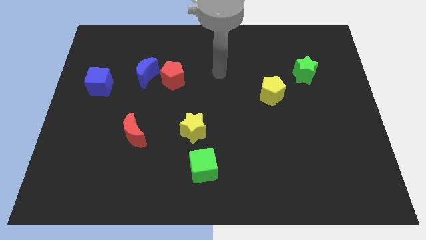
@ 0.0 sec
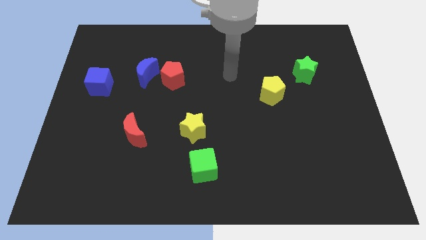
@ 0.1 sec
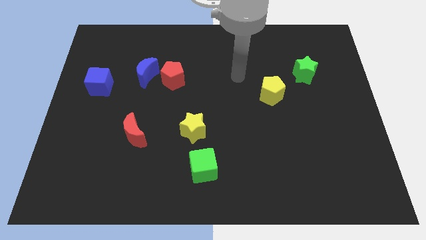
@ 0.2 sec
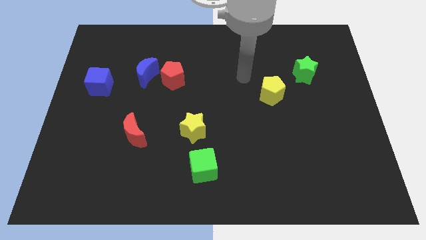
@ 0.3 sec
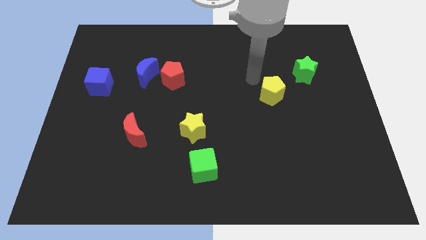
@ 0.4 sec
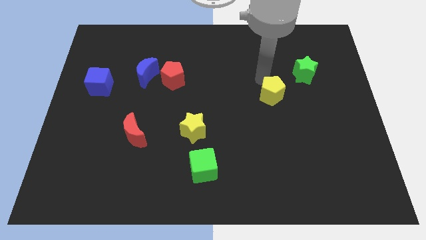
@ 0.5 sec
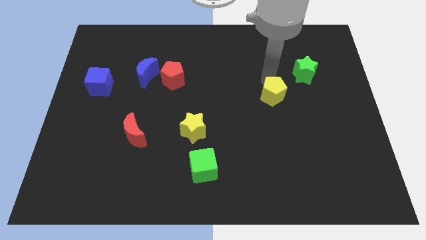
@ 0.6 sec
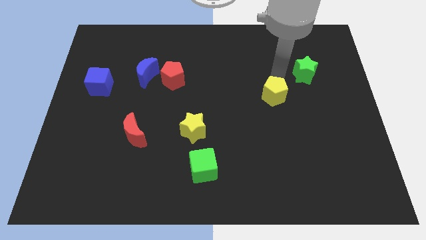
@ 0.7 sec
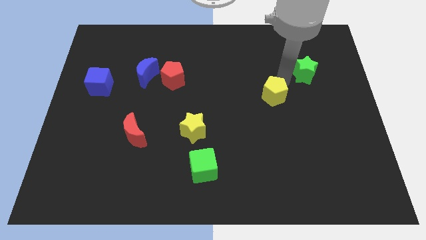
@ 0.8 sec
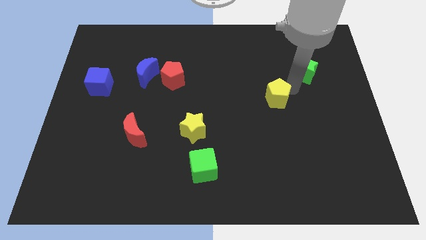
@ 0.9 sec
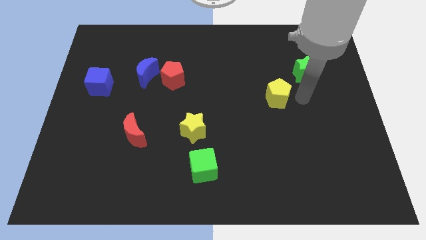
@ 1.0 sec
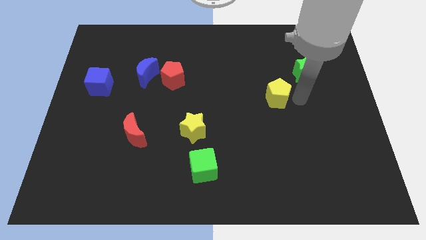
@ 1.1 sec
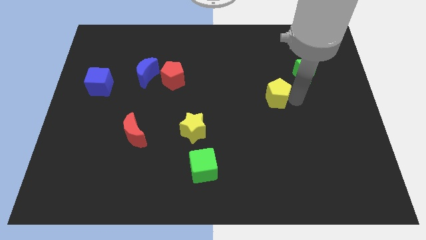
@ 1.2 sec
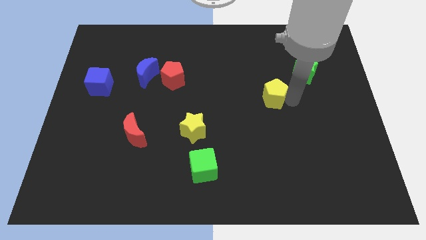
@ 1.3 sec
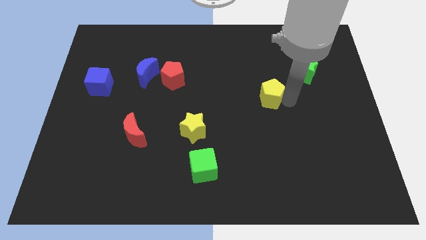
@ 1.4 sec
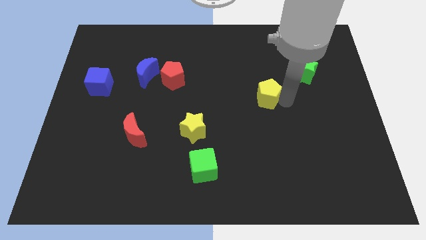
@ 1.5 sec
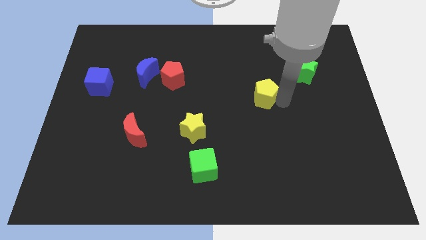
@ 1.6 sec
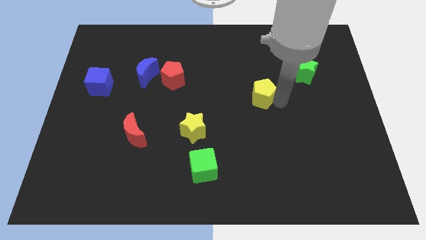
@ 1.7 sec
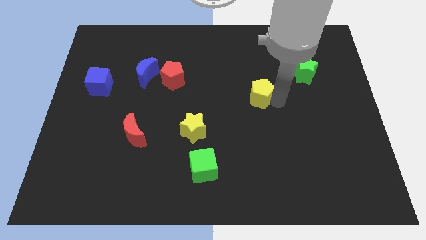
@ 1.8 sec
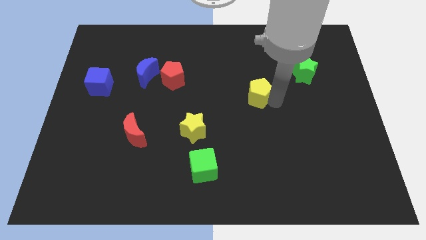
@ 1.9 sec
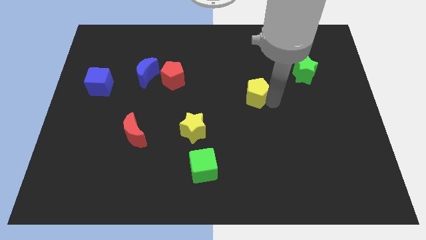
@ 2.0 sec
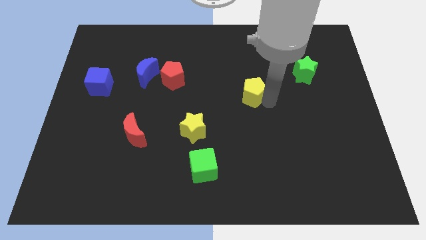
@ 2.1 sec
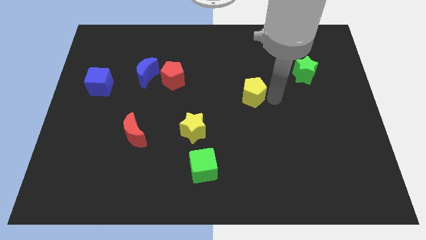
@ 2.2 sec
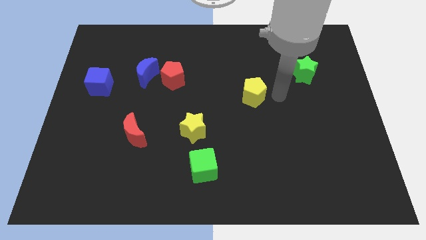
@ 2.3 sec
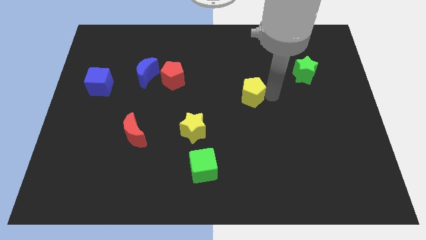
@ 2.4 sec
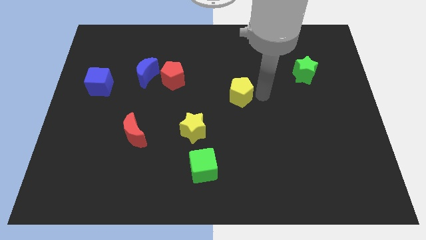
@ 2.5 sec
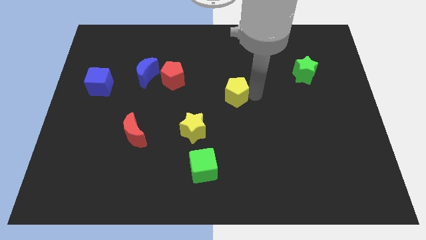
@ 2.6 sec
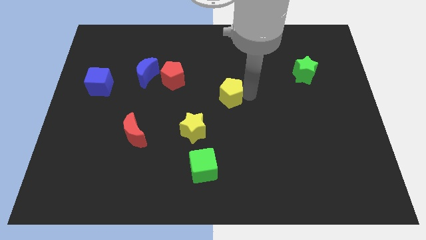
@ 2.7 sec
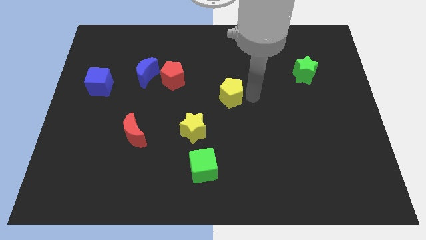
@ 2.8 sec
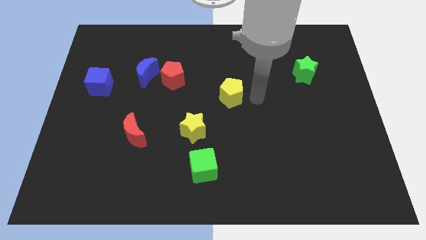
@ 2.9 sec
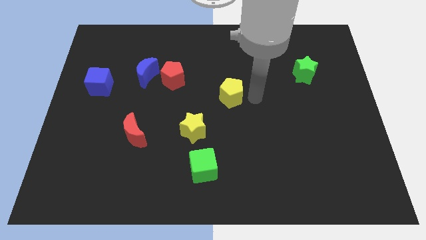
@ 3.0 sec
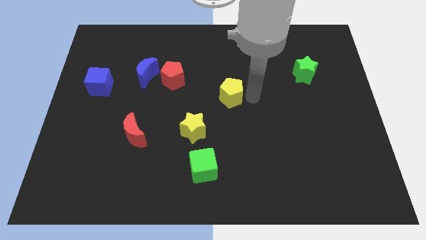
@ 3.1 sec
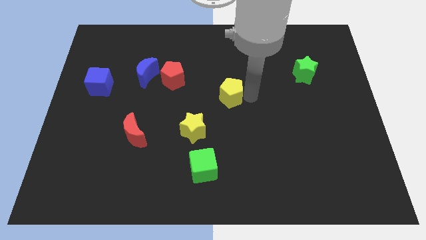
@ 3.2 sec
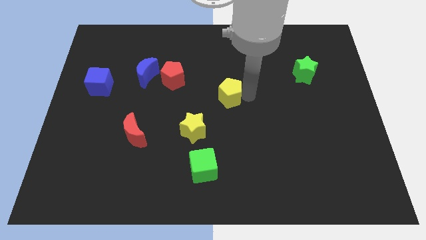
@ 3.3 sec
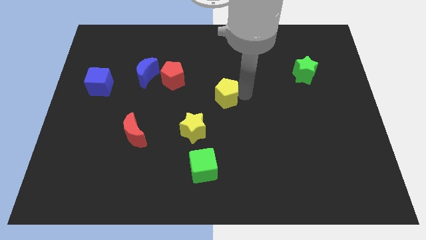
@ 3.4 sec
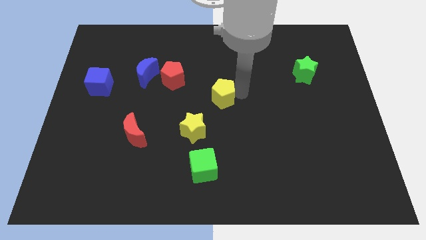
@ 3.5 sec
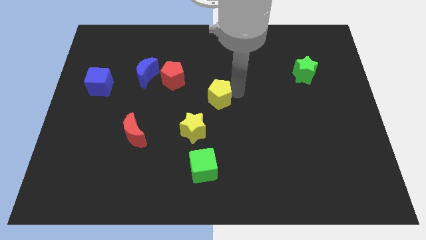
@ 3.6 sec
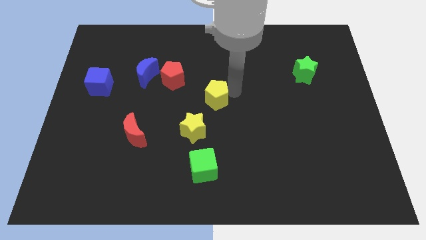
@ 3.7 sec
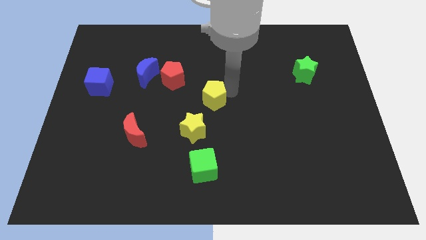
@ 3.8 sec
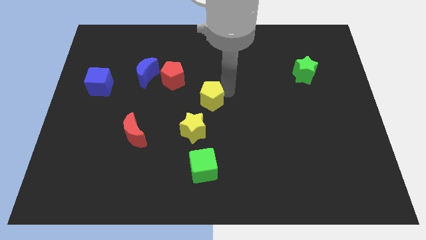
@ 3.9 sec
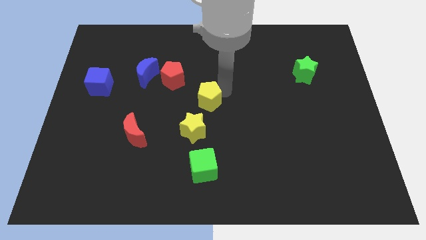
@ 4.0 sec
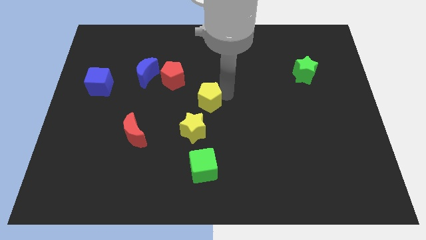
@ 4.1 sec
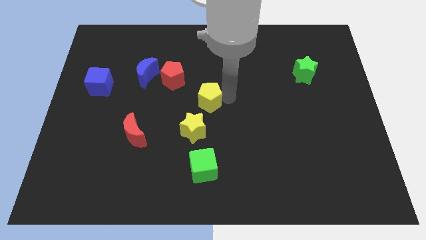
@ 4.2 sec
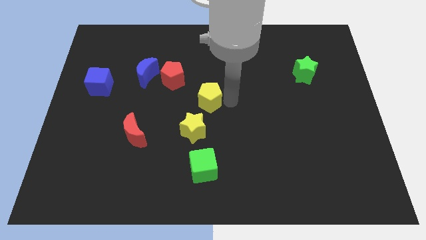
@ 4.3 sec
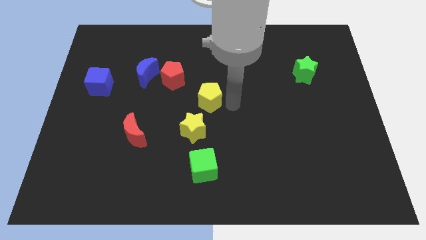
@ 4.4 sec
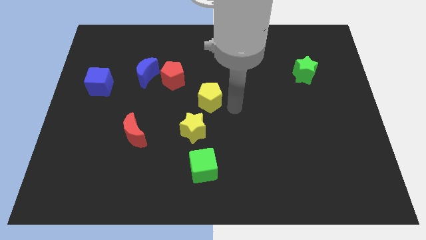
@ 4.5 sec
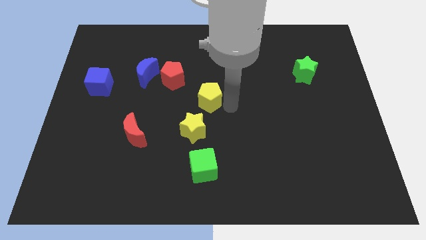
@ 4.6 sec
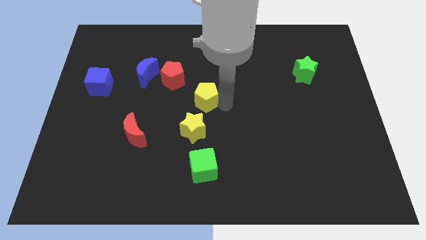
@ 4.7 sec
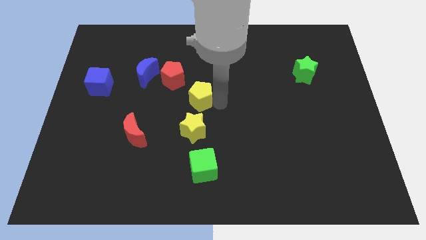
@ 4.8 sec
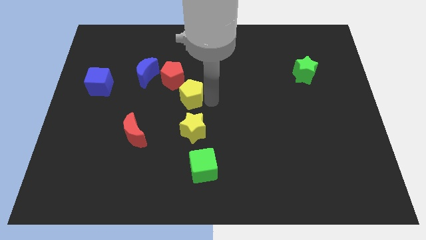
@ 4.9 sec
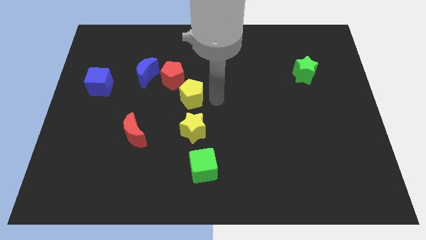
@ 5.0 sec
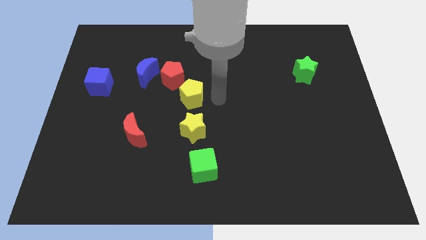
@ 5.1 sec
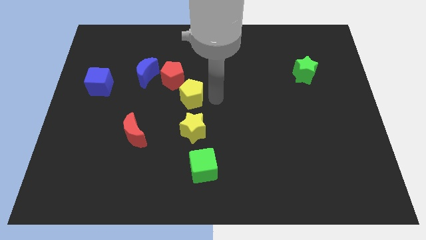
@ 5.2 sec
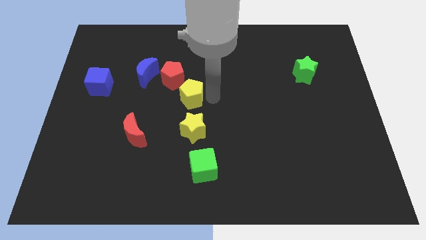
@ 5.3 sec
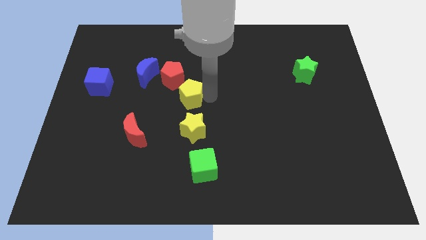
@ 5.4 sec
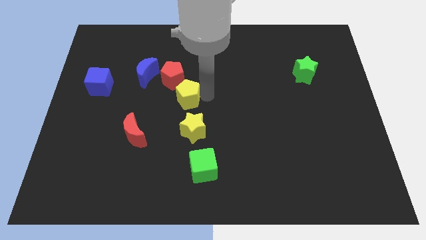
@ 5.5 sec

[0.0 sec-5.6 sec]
push the yellow pentagon left

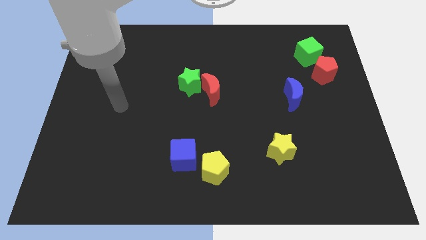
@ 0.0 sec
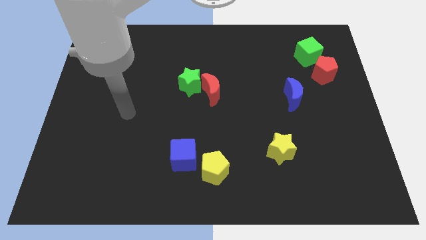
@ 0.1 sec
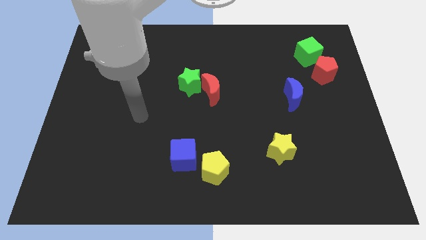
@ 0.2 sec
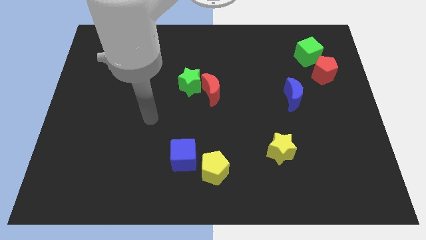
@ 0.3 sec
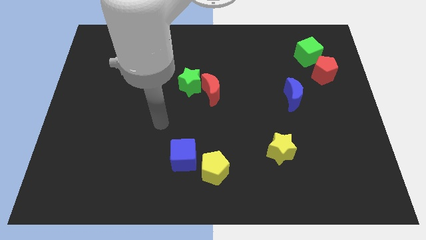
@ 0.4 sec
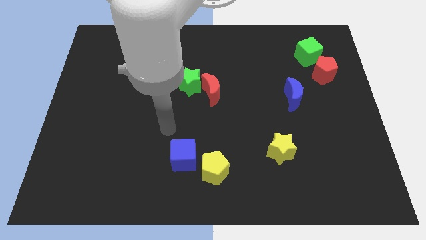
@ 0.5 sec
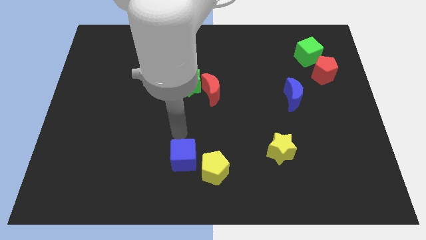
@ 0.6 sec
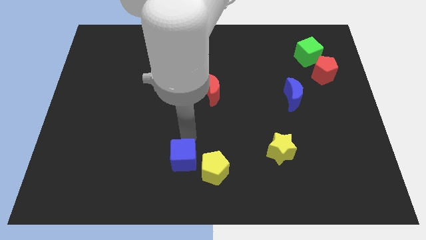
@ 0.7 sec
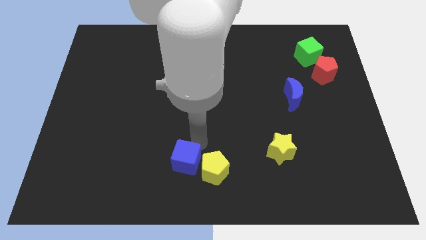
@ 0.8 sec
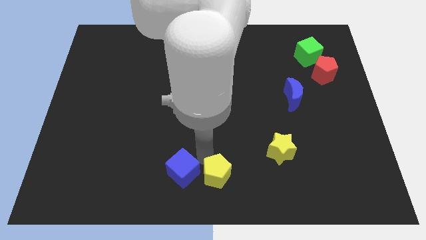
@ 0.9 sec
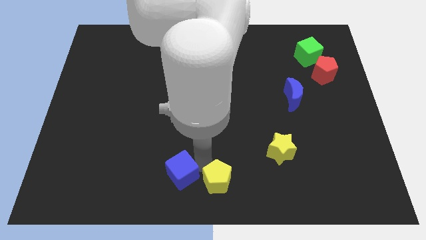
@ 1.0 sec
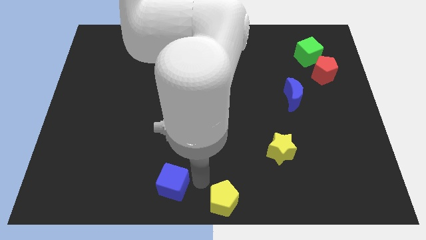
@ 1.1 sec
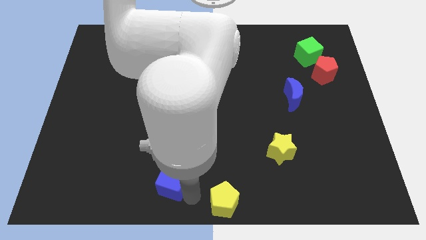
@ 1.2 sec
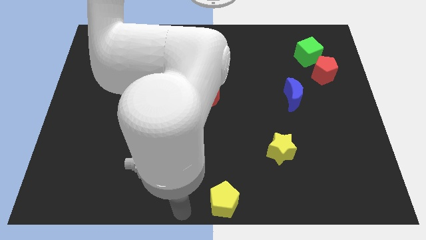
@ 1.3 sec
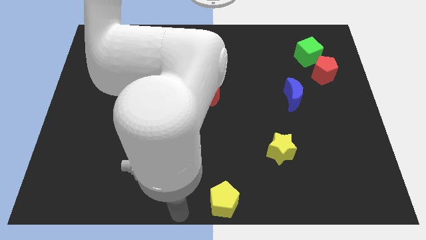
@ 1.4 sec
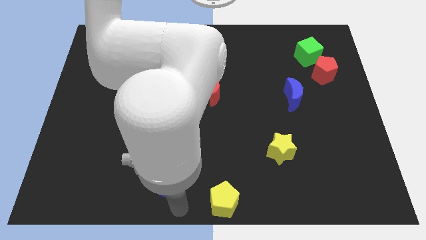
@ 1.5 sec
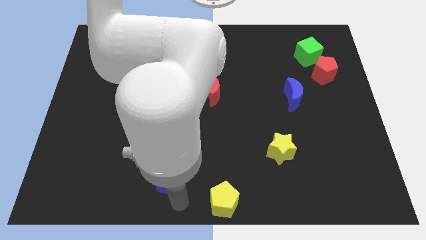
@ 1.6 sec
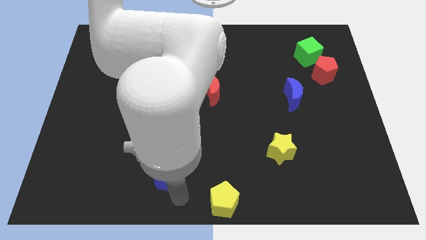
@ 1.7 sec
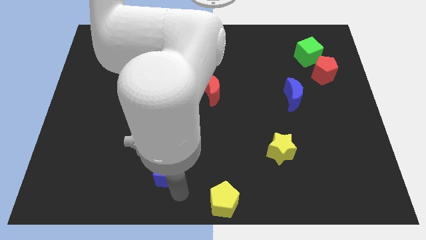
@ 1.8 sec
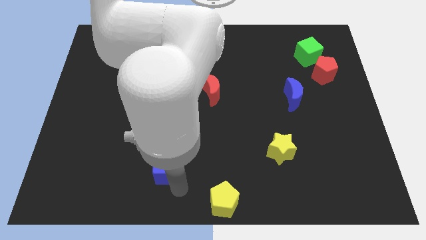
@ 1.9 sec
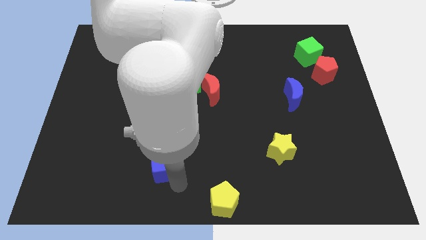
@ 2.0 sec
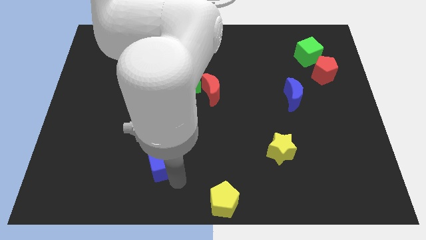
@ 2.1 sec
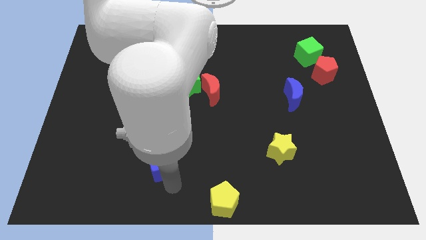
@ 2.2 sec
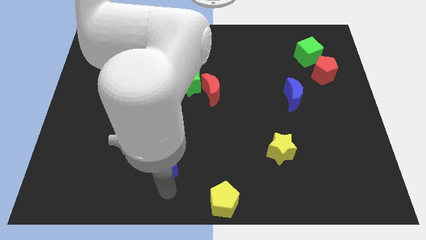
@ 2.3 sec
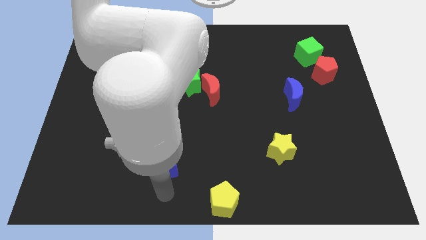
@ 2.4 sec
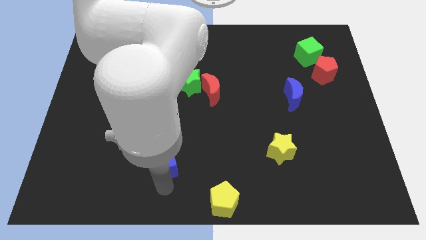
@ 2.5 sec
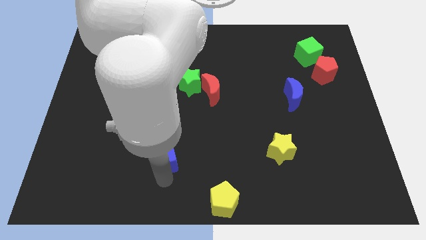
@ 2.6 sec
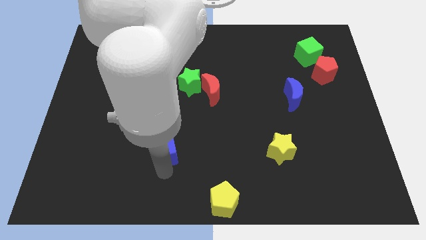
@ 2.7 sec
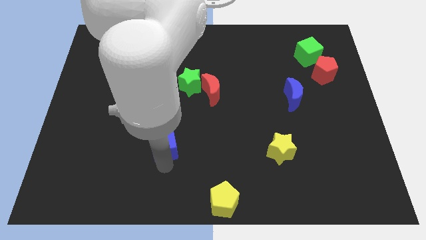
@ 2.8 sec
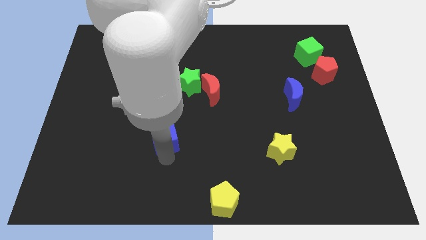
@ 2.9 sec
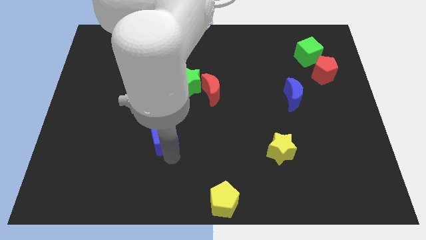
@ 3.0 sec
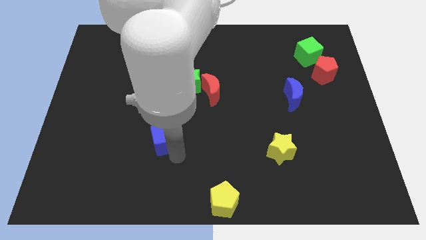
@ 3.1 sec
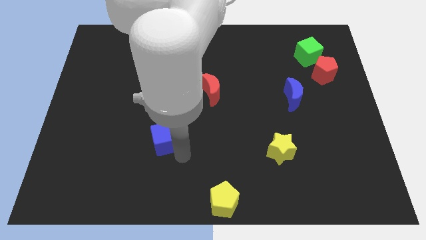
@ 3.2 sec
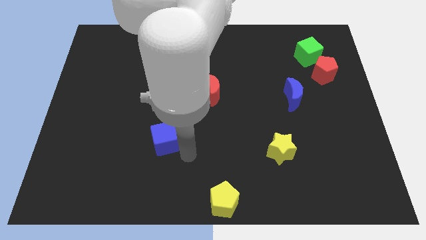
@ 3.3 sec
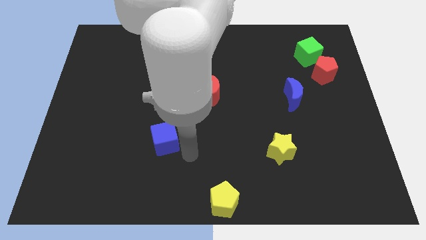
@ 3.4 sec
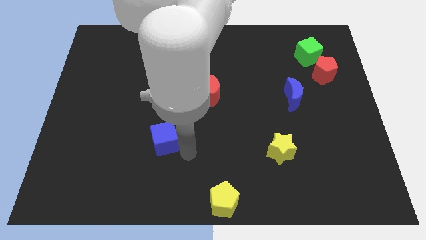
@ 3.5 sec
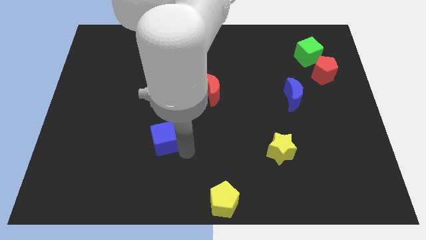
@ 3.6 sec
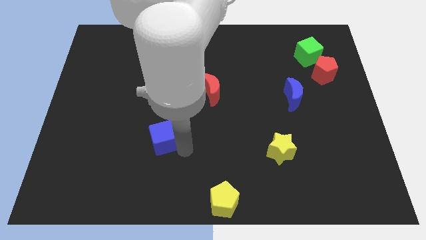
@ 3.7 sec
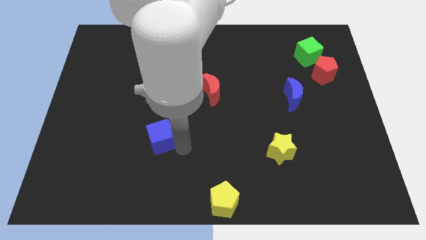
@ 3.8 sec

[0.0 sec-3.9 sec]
move the blue cube a little up and then to the left
